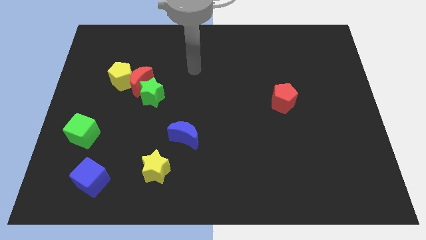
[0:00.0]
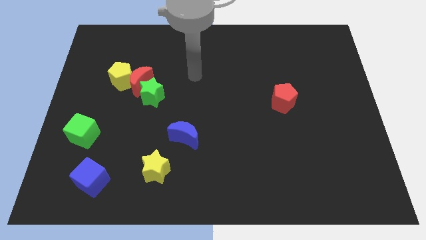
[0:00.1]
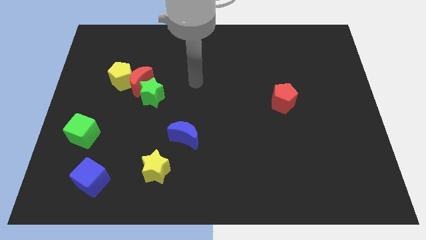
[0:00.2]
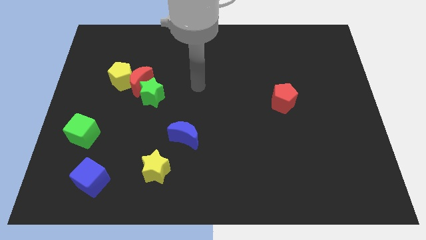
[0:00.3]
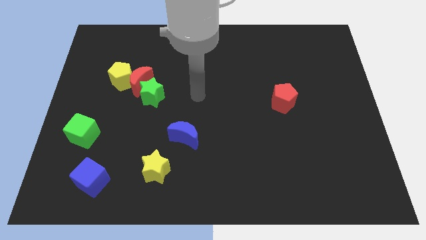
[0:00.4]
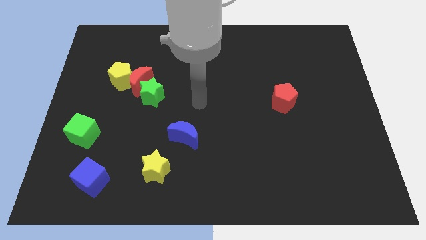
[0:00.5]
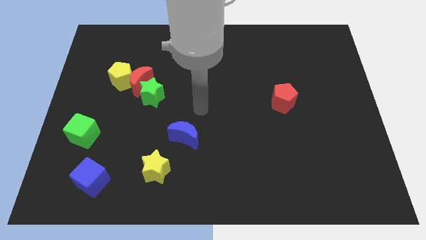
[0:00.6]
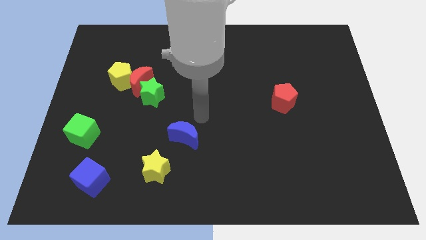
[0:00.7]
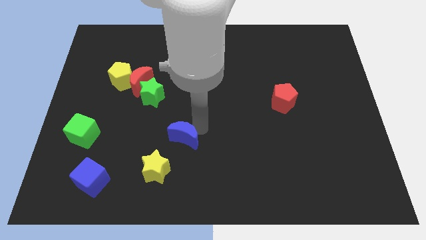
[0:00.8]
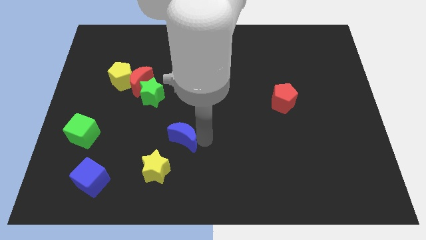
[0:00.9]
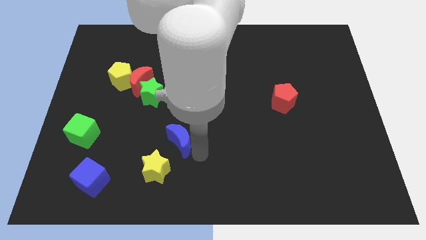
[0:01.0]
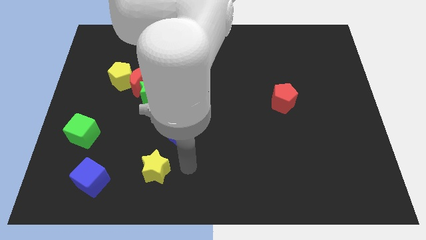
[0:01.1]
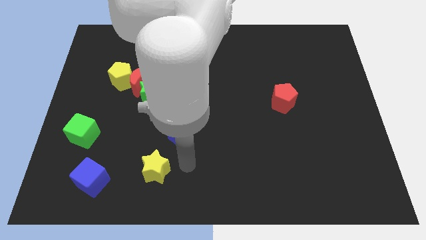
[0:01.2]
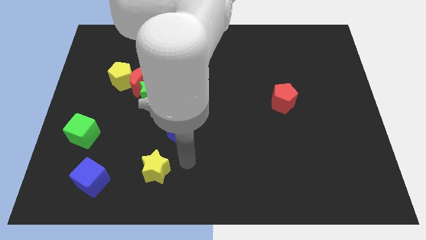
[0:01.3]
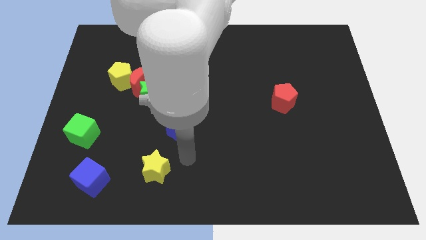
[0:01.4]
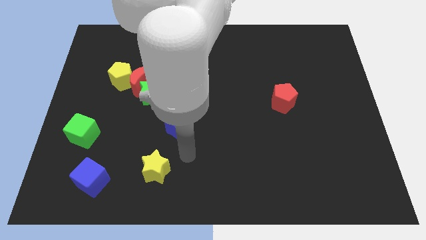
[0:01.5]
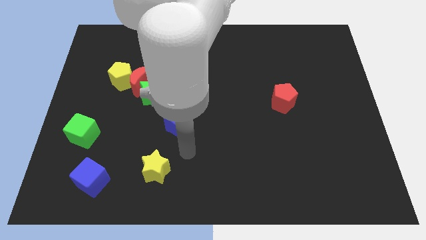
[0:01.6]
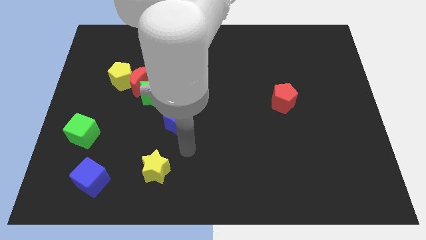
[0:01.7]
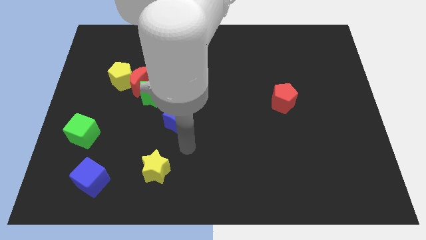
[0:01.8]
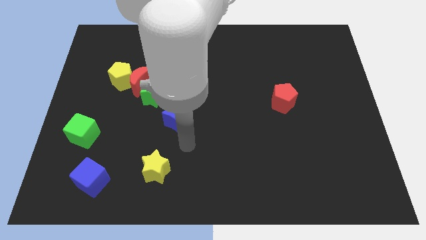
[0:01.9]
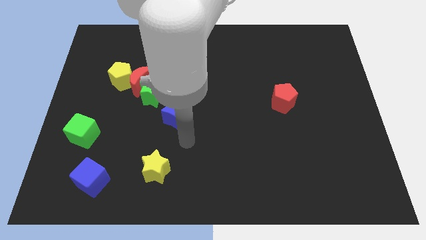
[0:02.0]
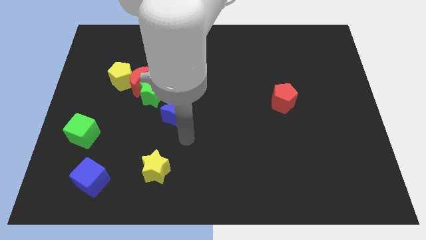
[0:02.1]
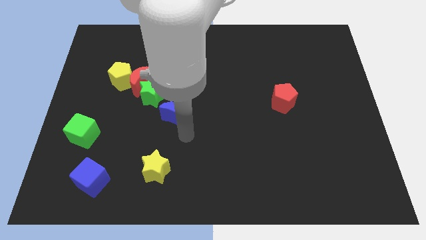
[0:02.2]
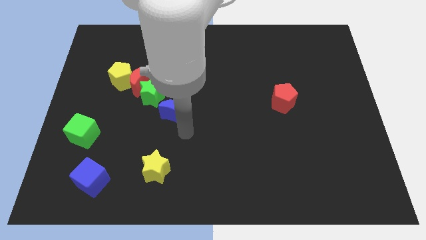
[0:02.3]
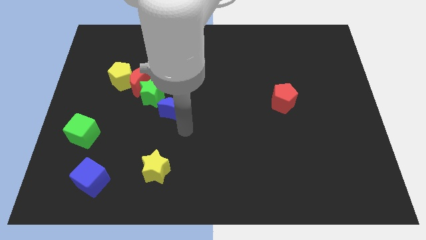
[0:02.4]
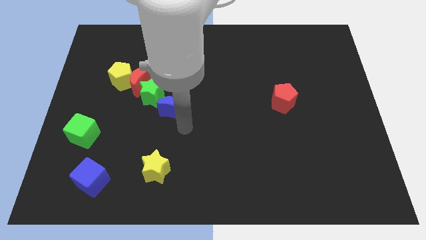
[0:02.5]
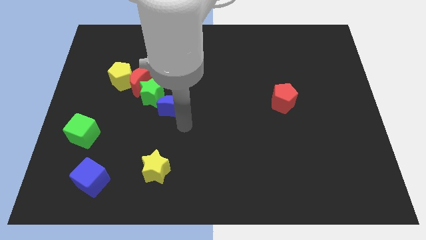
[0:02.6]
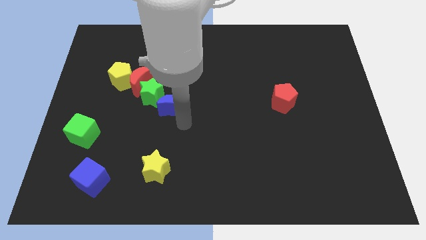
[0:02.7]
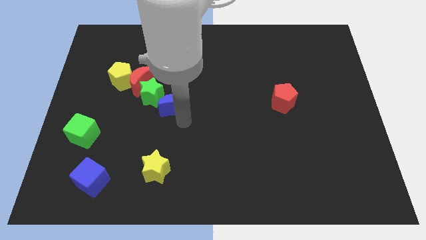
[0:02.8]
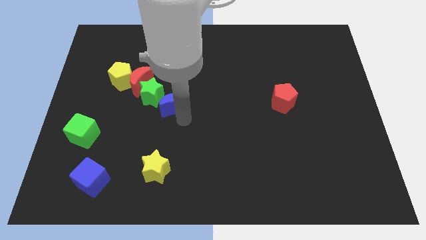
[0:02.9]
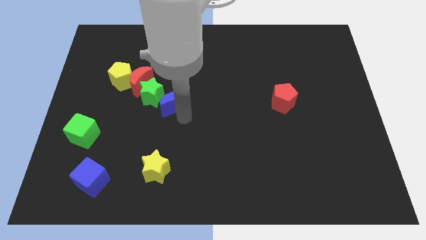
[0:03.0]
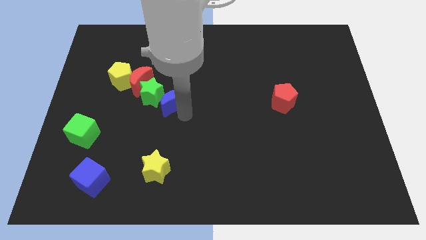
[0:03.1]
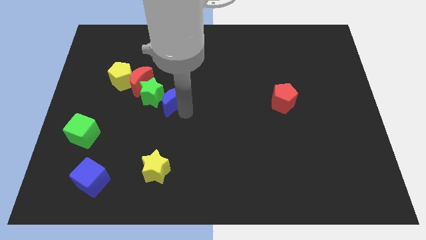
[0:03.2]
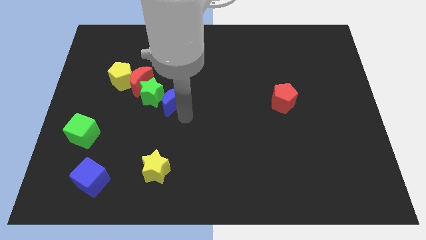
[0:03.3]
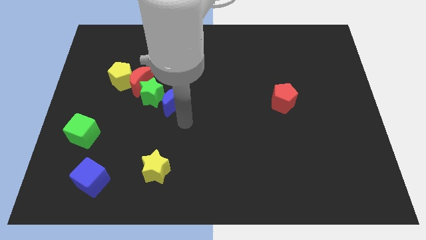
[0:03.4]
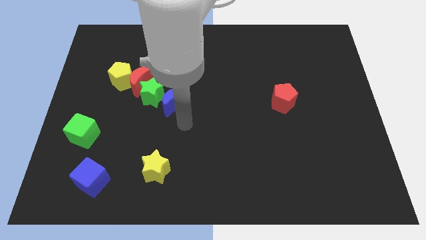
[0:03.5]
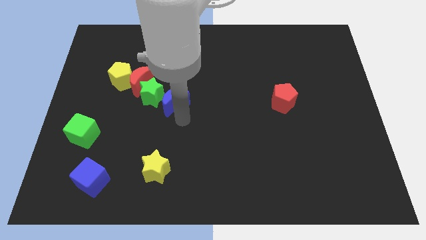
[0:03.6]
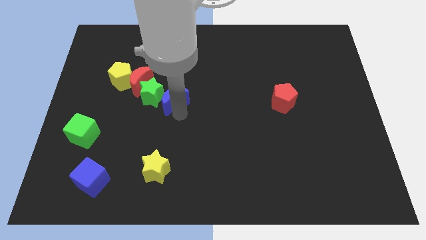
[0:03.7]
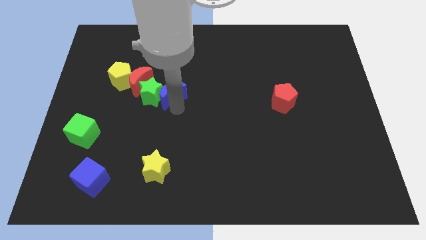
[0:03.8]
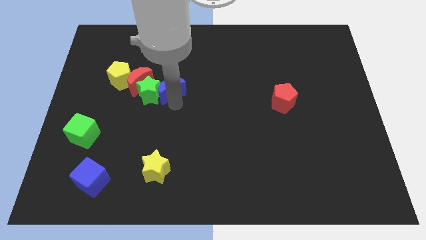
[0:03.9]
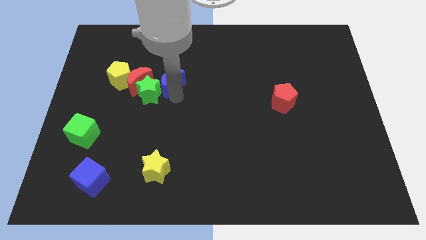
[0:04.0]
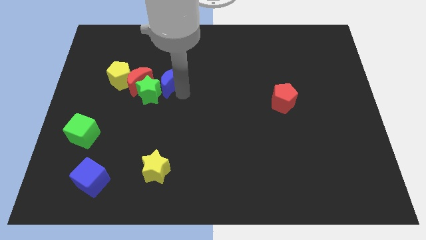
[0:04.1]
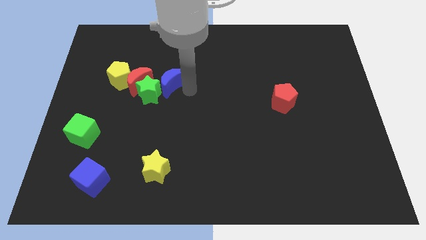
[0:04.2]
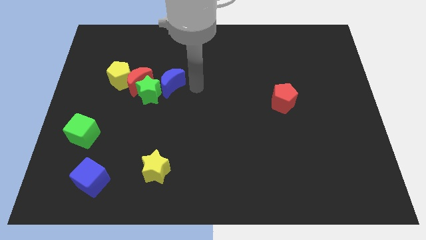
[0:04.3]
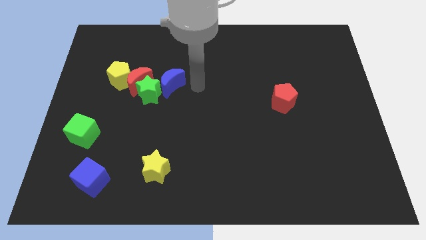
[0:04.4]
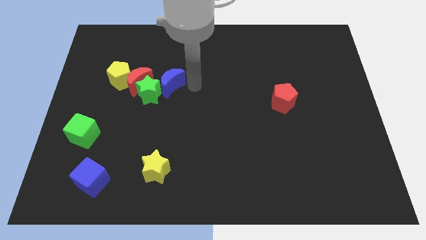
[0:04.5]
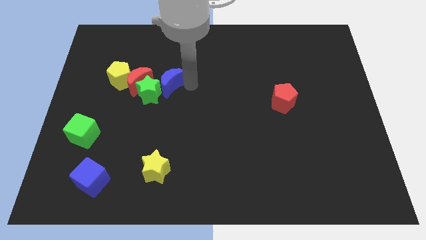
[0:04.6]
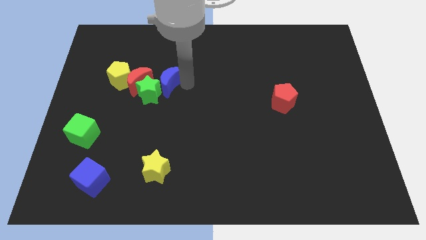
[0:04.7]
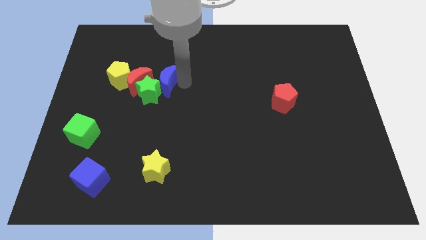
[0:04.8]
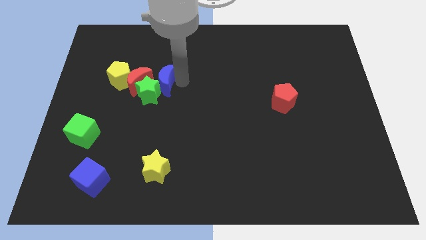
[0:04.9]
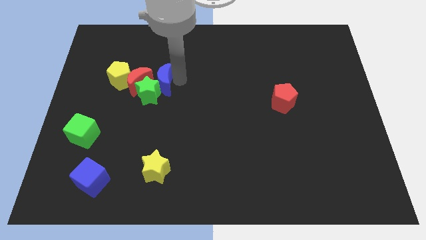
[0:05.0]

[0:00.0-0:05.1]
push the blue moon close to the red moon

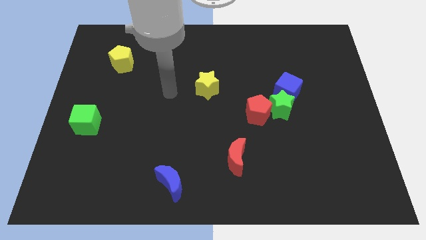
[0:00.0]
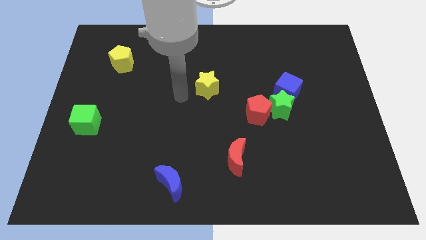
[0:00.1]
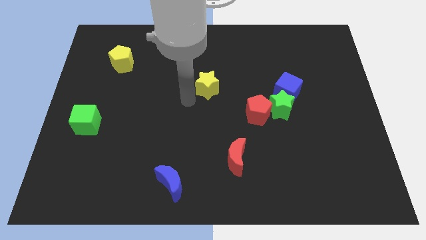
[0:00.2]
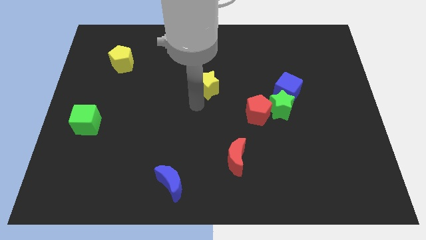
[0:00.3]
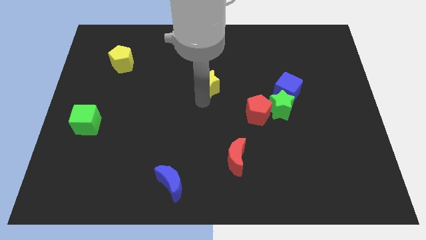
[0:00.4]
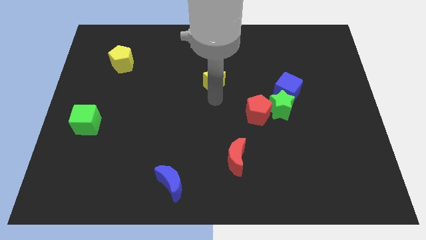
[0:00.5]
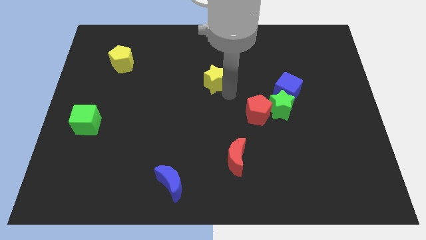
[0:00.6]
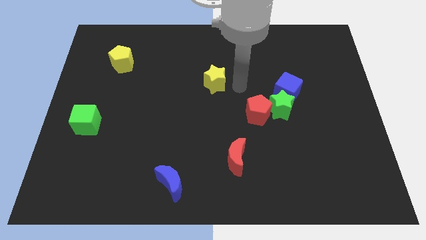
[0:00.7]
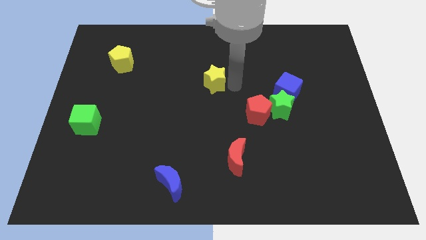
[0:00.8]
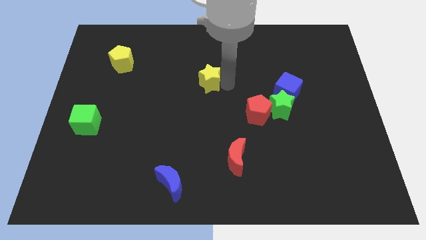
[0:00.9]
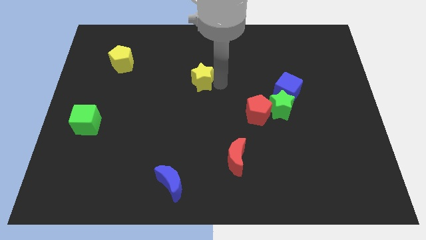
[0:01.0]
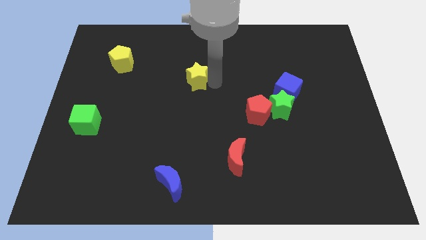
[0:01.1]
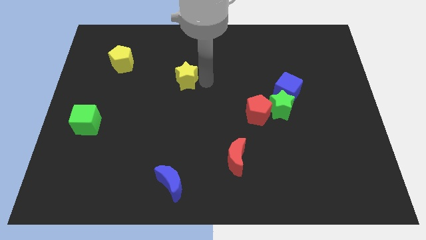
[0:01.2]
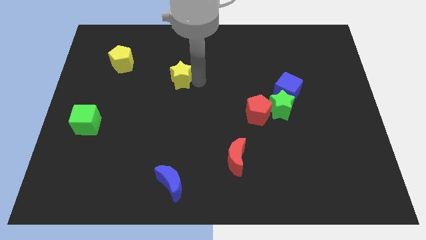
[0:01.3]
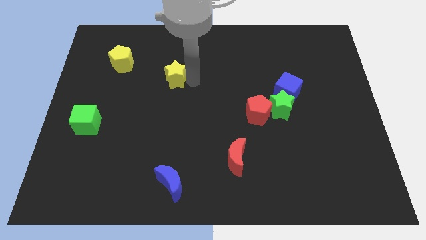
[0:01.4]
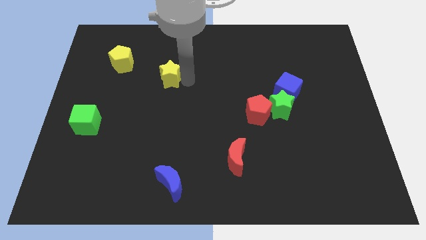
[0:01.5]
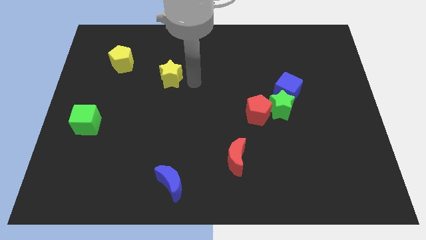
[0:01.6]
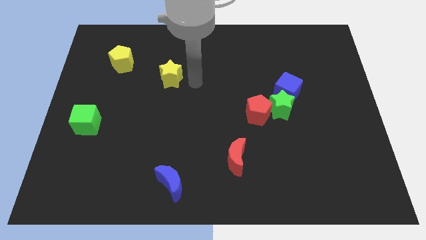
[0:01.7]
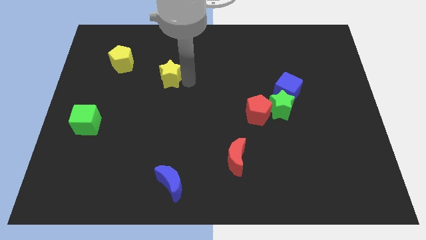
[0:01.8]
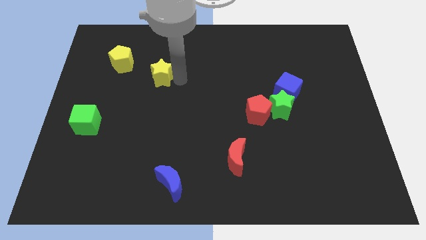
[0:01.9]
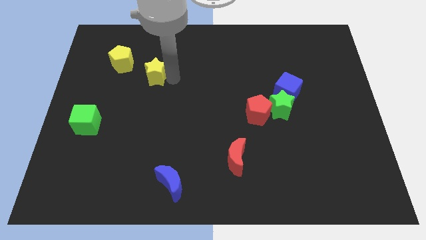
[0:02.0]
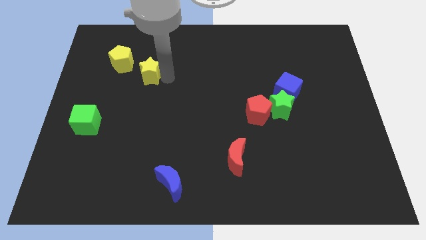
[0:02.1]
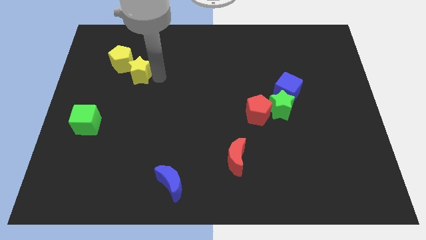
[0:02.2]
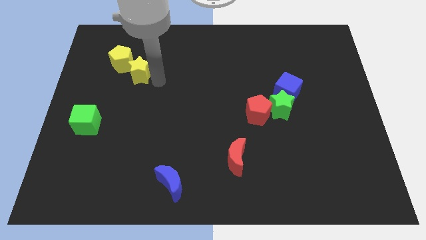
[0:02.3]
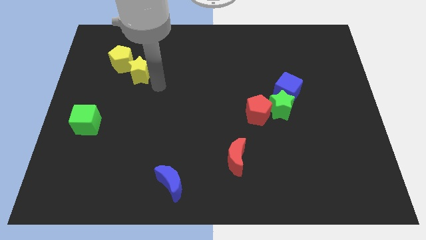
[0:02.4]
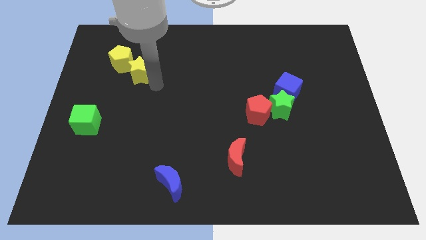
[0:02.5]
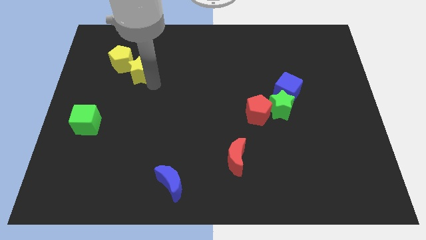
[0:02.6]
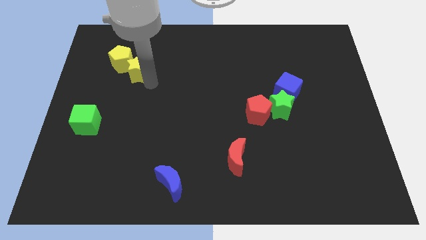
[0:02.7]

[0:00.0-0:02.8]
move the yellow star next to the yellow pentagon

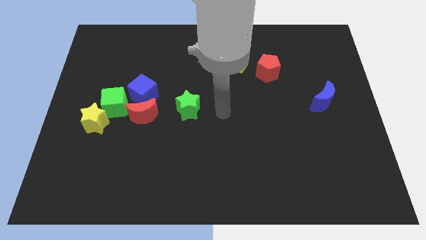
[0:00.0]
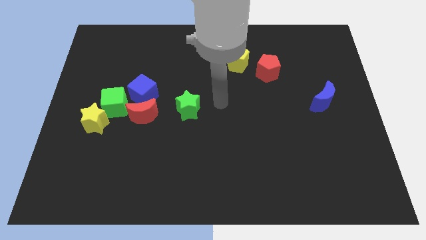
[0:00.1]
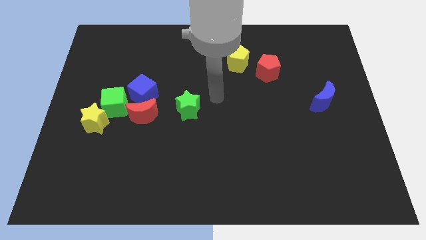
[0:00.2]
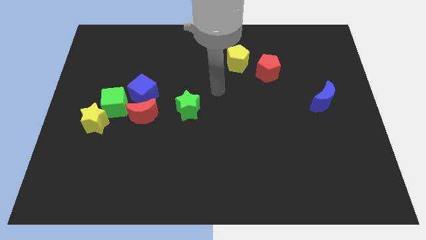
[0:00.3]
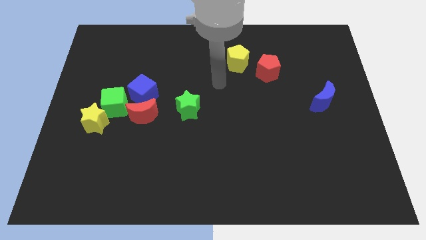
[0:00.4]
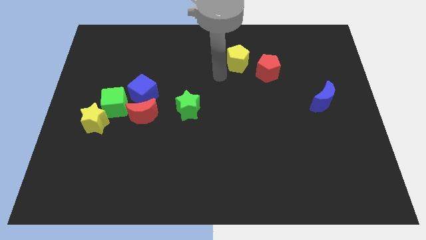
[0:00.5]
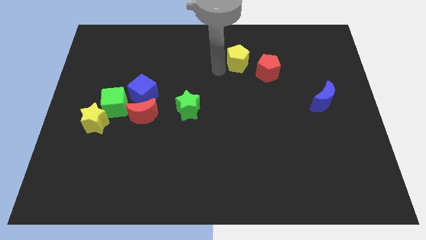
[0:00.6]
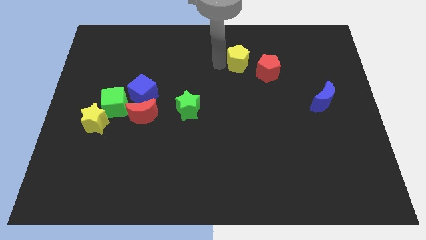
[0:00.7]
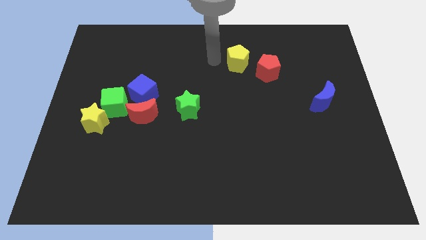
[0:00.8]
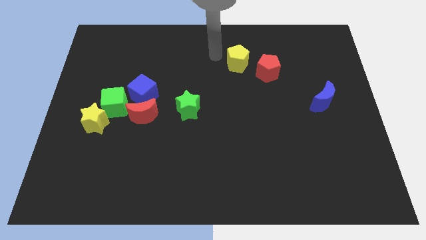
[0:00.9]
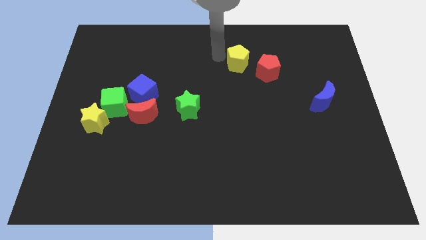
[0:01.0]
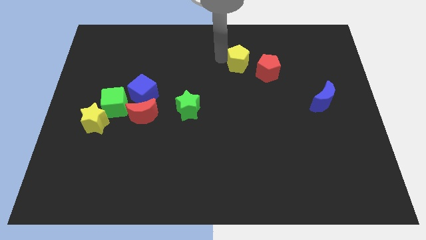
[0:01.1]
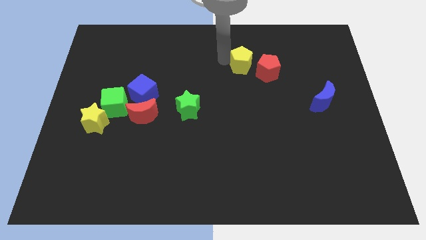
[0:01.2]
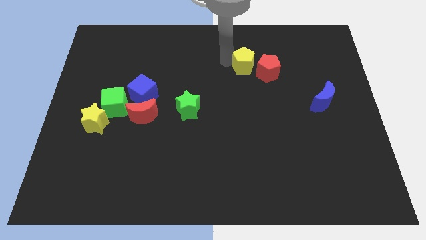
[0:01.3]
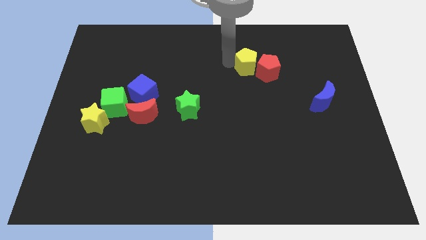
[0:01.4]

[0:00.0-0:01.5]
slide the yellow pentagon close to the red pentagon
